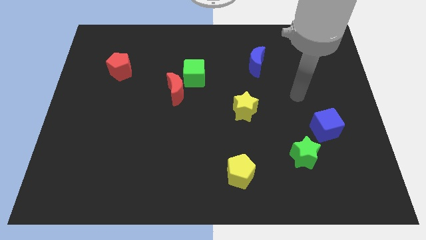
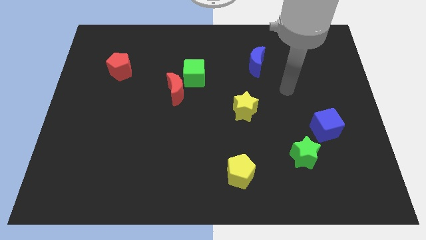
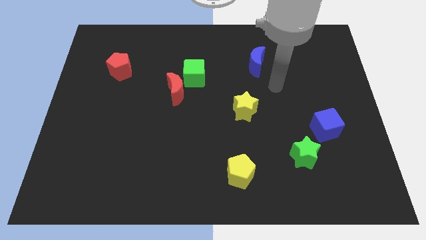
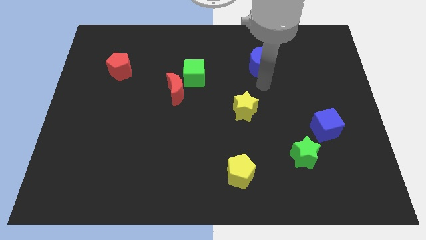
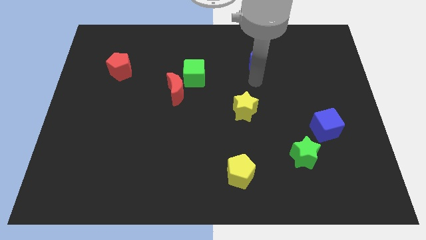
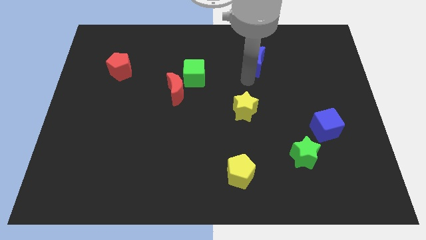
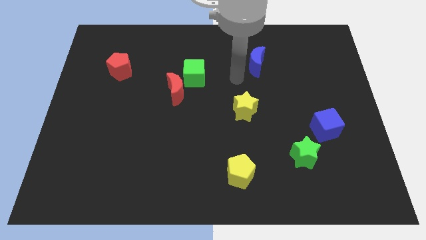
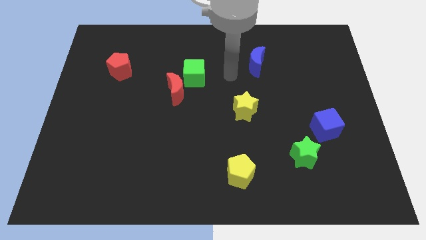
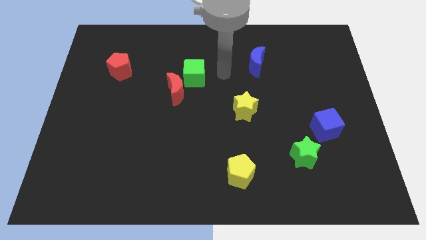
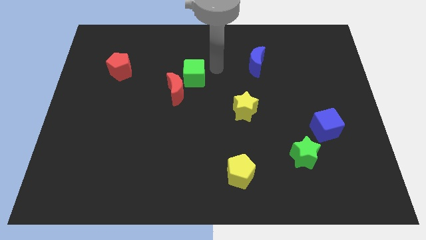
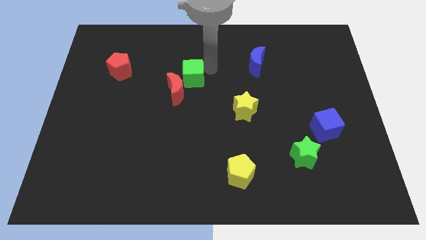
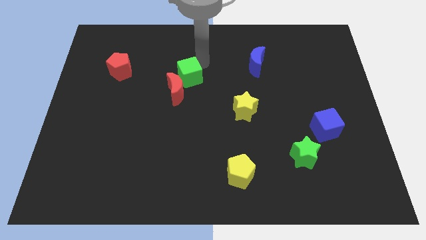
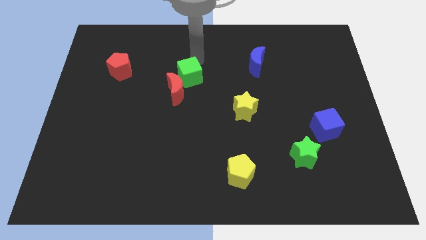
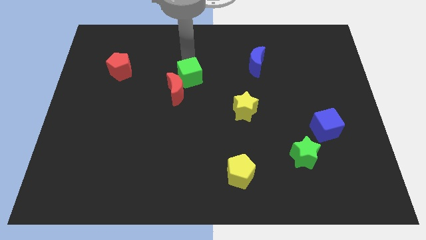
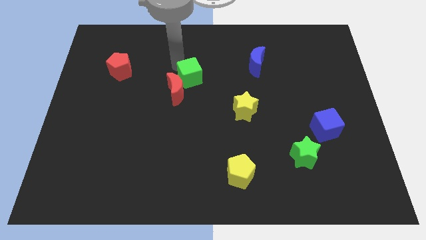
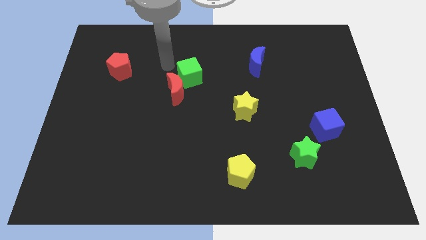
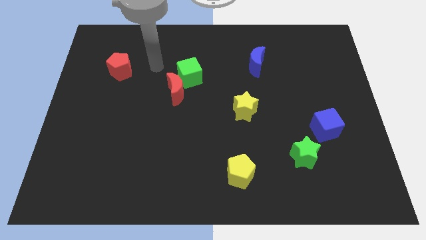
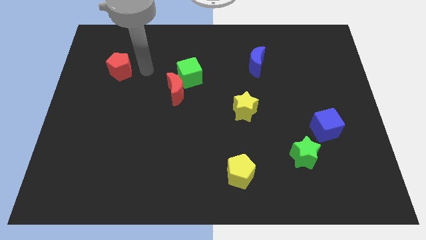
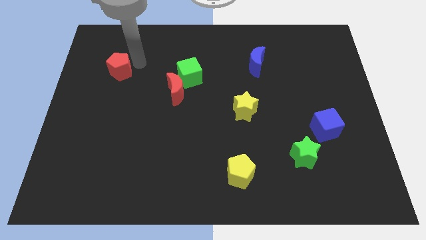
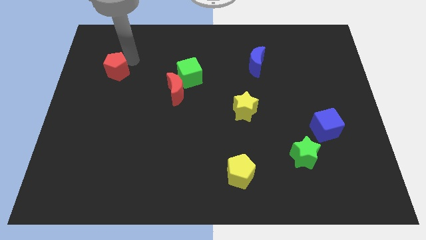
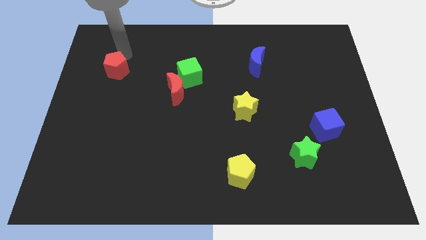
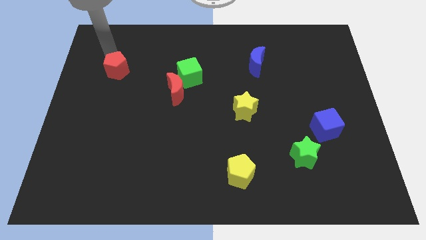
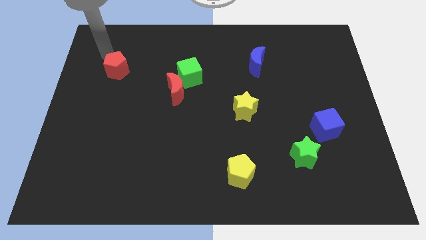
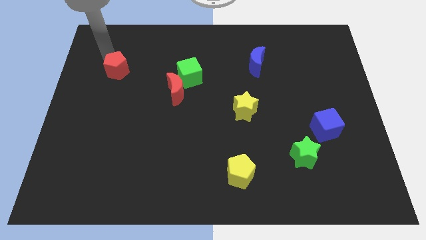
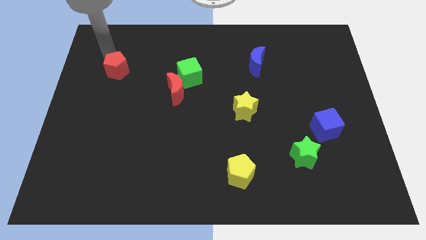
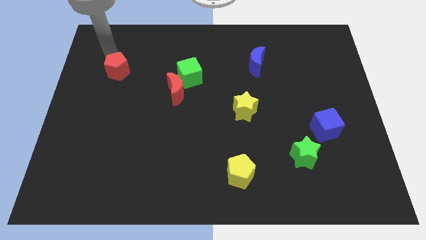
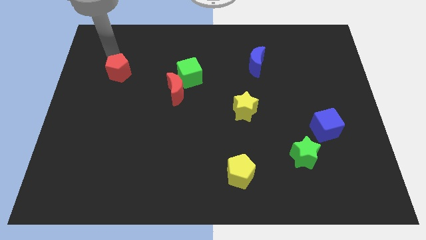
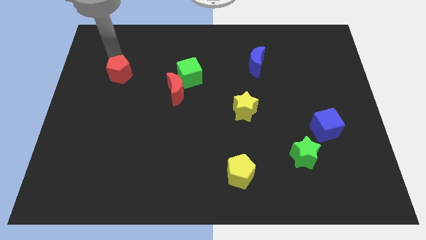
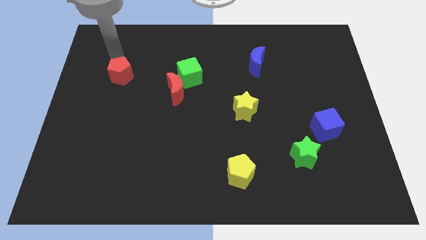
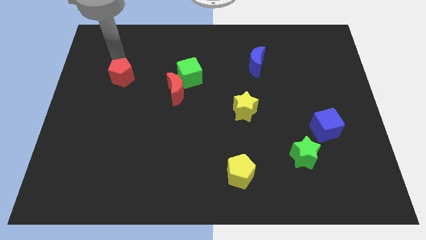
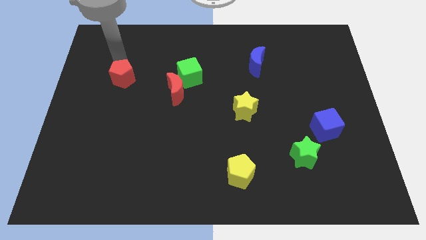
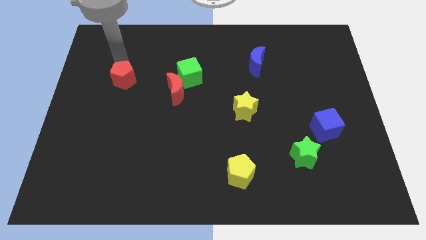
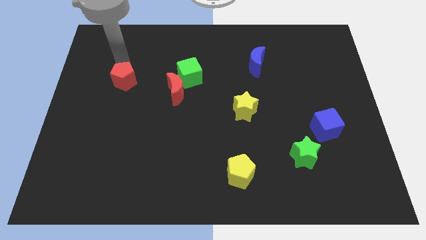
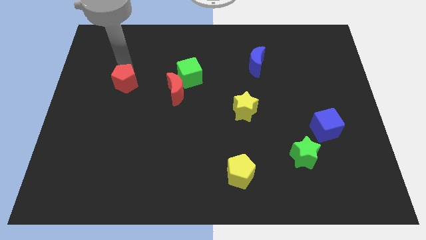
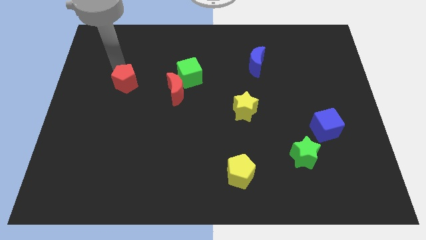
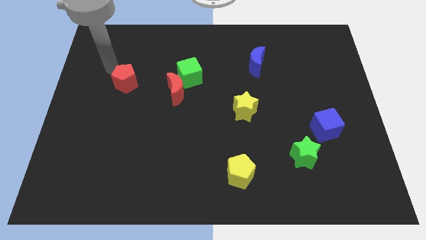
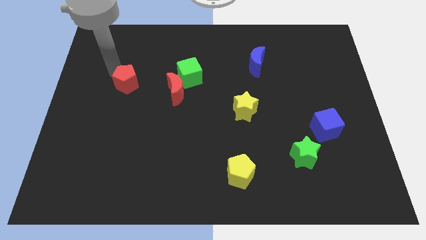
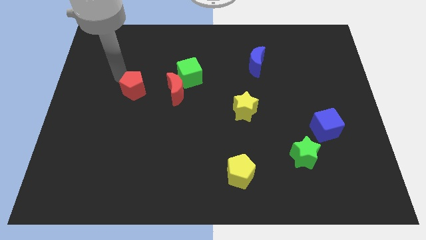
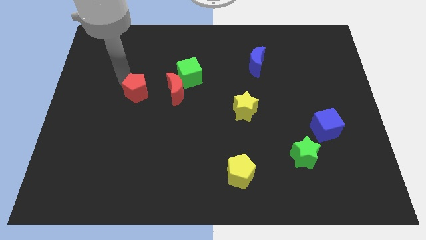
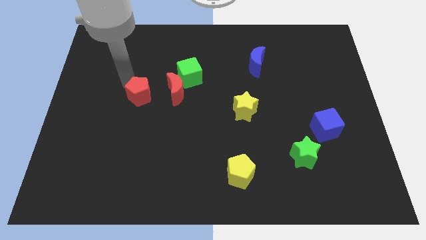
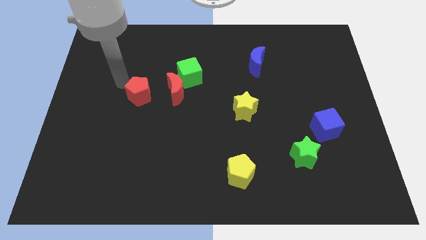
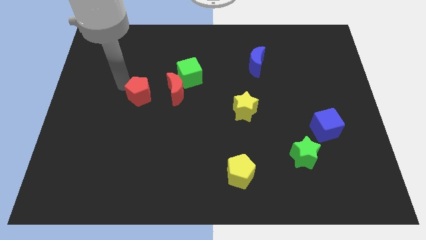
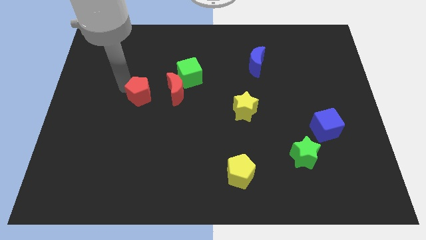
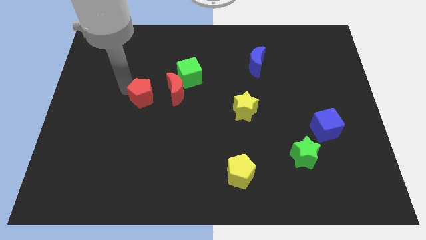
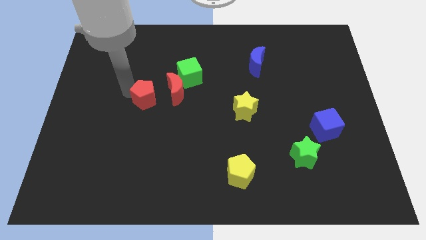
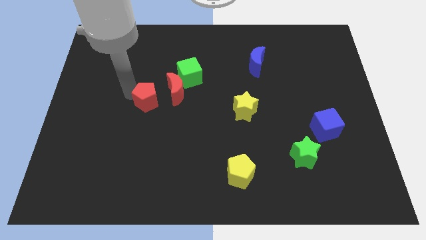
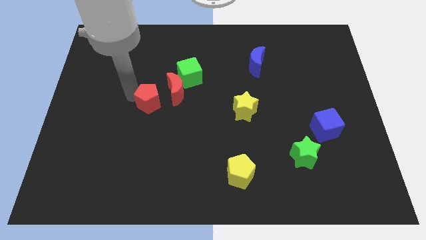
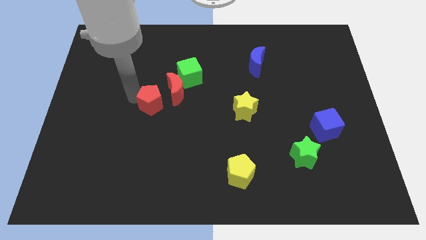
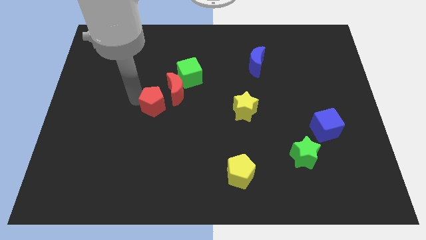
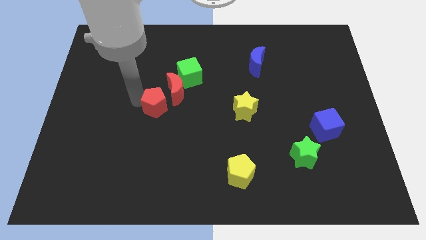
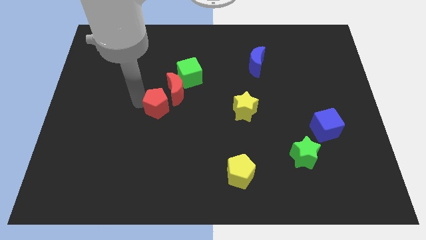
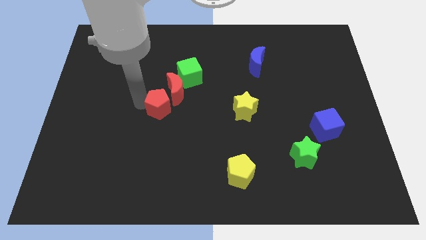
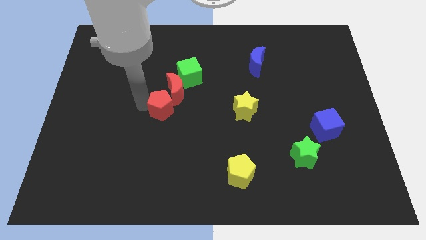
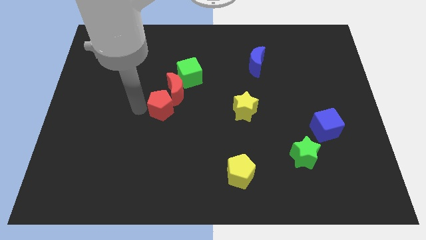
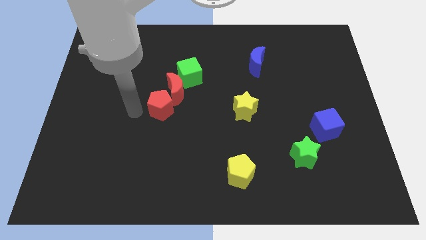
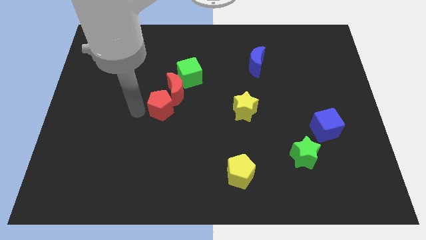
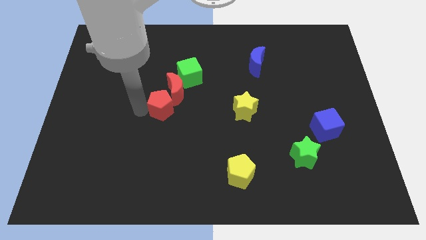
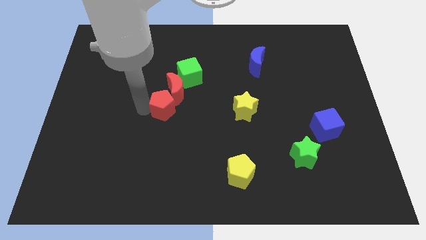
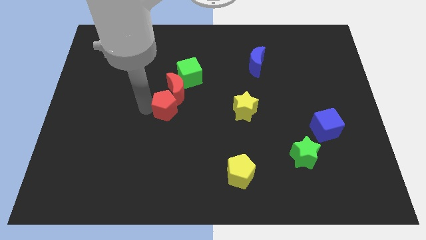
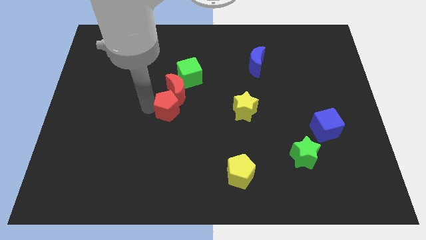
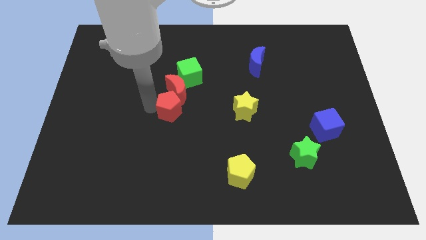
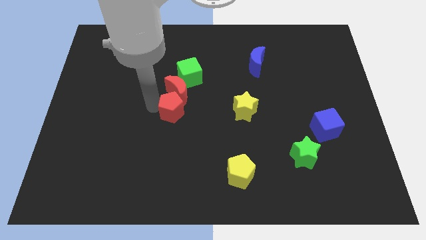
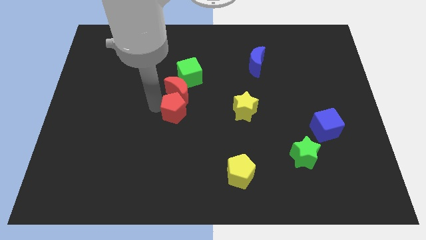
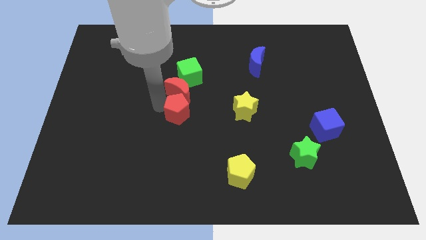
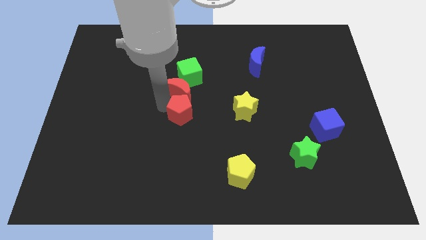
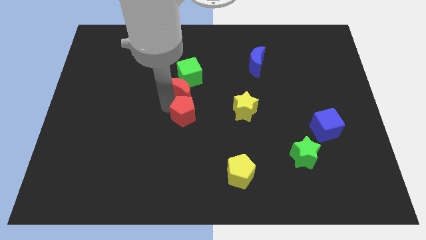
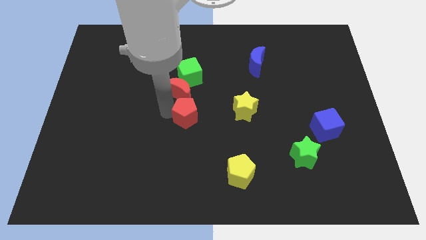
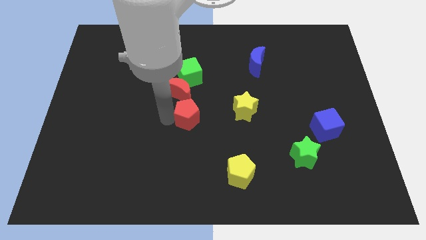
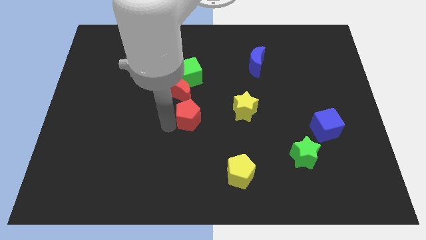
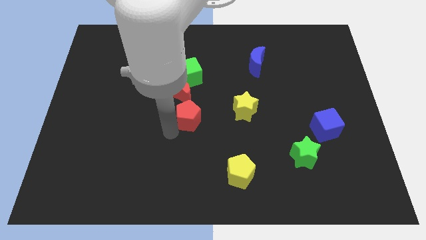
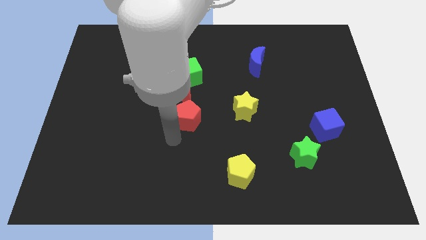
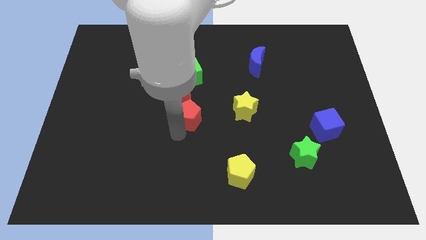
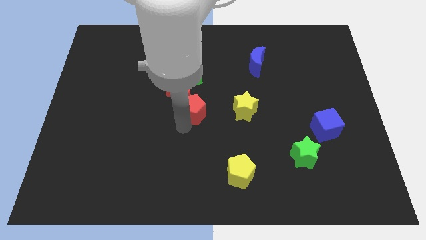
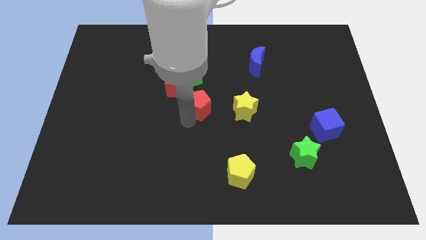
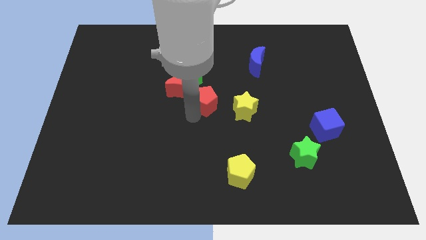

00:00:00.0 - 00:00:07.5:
slide the red pentagon diagonally down and to the right of the green cube
